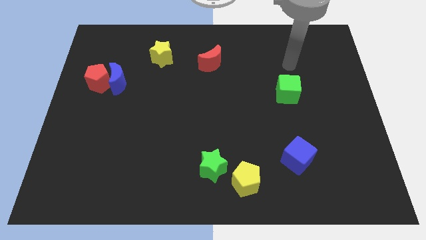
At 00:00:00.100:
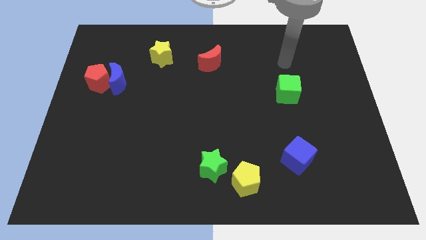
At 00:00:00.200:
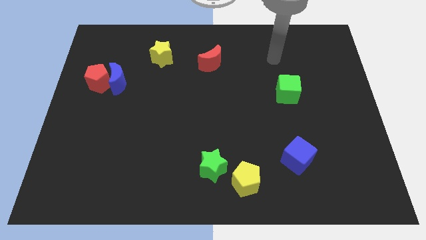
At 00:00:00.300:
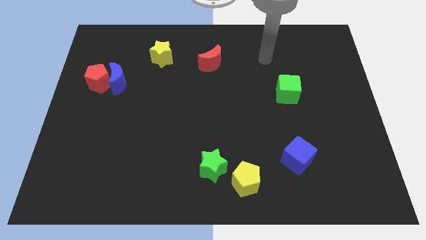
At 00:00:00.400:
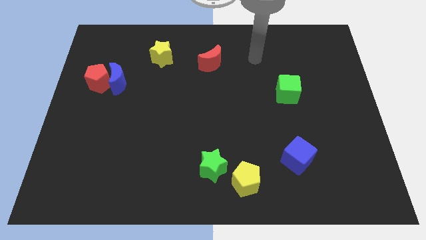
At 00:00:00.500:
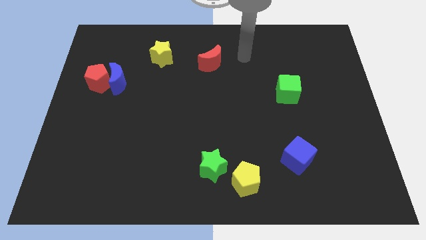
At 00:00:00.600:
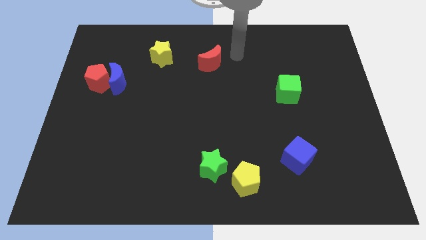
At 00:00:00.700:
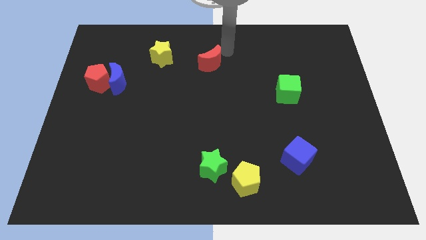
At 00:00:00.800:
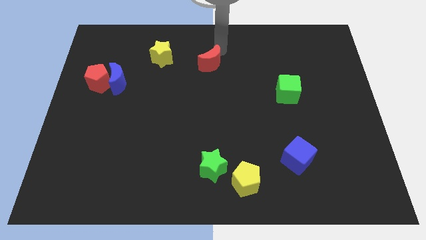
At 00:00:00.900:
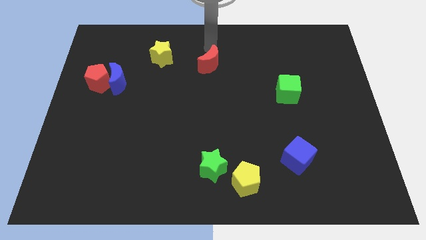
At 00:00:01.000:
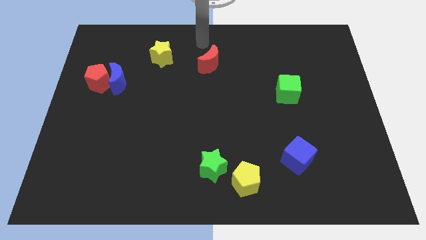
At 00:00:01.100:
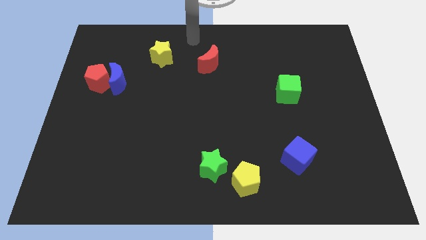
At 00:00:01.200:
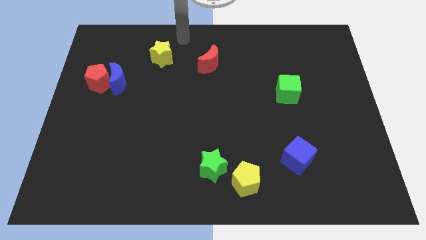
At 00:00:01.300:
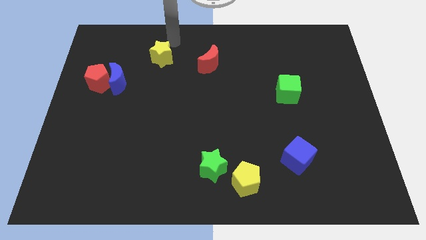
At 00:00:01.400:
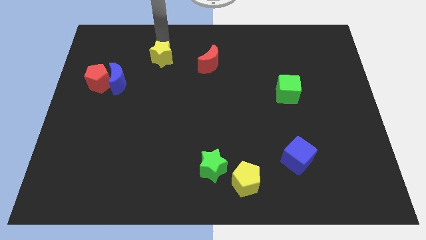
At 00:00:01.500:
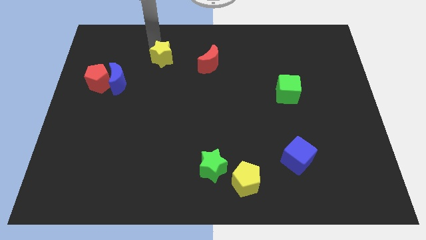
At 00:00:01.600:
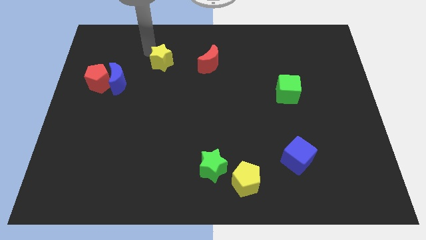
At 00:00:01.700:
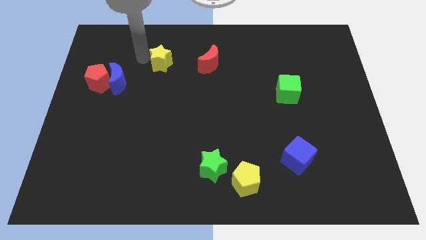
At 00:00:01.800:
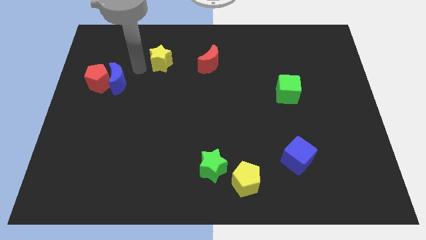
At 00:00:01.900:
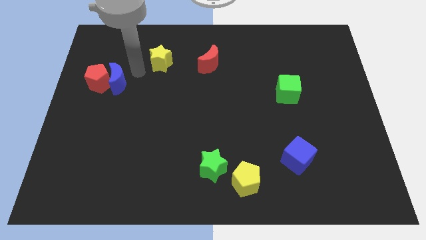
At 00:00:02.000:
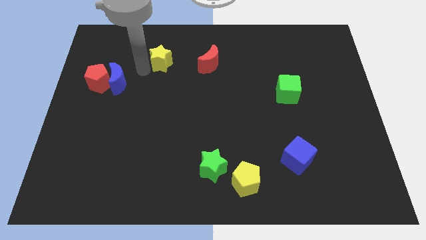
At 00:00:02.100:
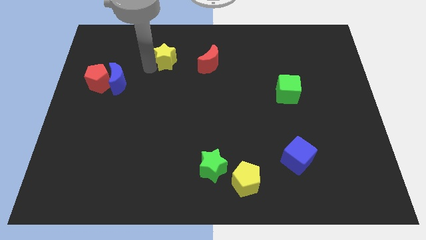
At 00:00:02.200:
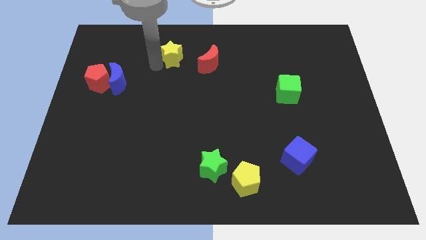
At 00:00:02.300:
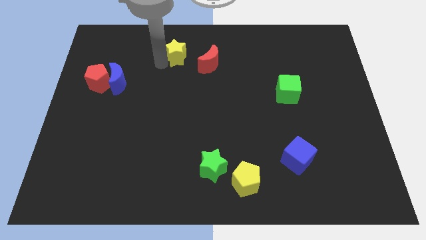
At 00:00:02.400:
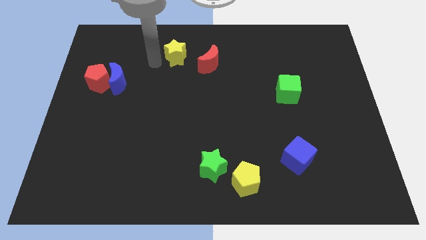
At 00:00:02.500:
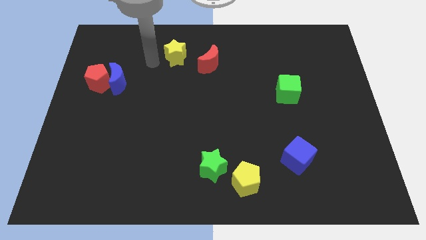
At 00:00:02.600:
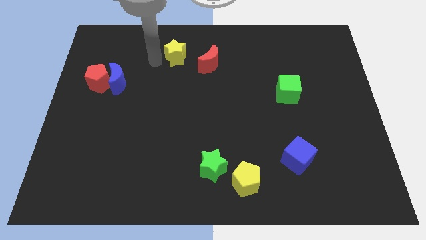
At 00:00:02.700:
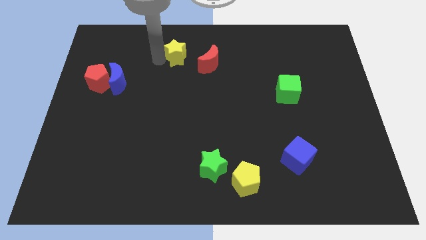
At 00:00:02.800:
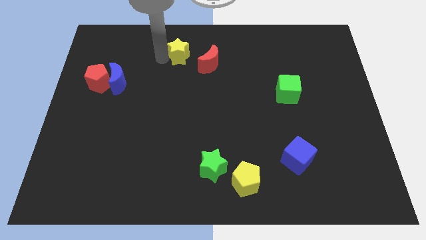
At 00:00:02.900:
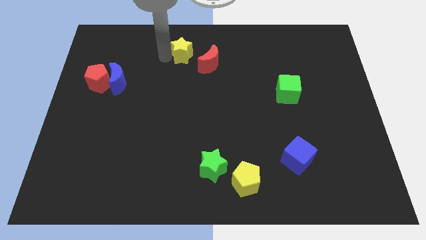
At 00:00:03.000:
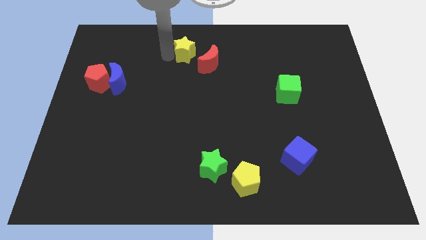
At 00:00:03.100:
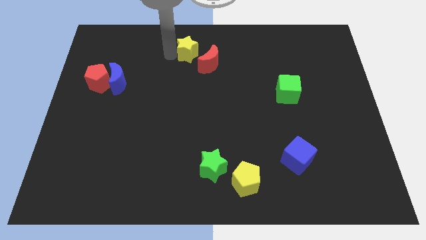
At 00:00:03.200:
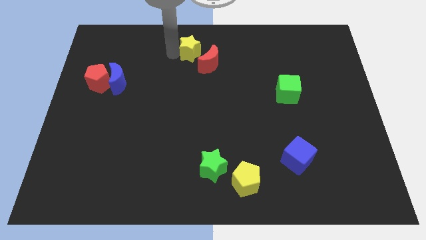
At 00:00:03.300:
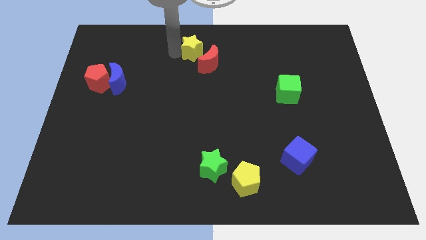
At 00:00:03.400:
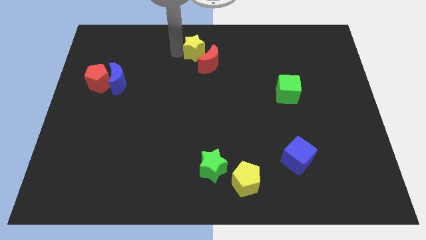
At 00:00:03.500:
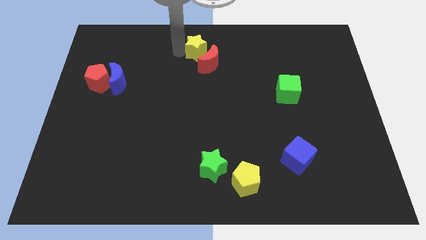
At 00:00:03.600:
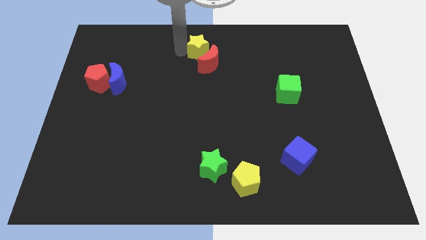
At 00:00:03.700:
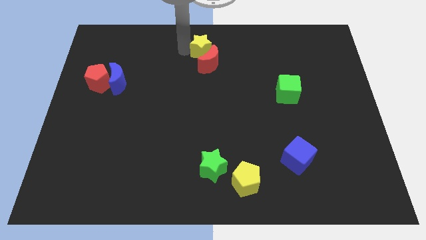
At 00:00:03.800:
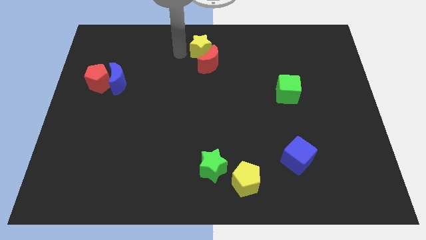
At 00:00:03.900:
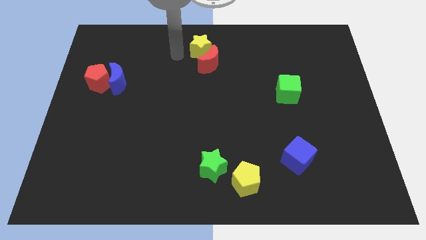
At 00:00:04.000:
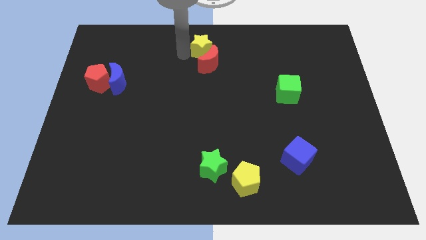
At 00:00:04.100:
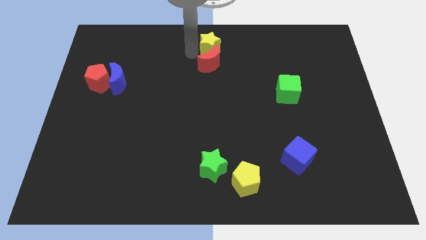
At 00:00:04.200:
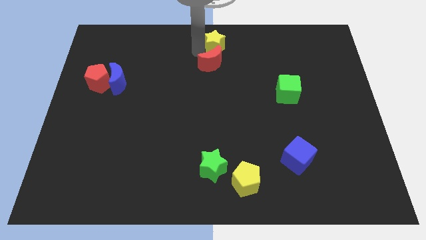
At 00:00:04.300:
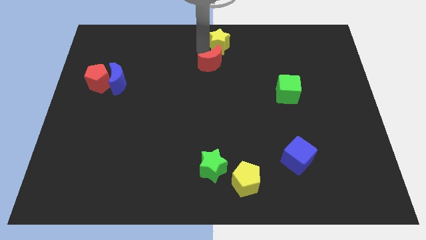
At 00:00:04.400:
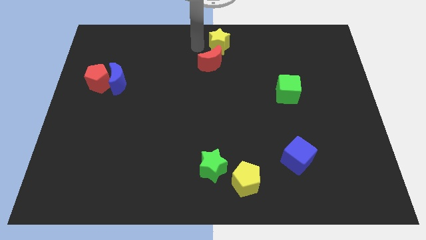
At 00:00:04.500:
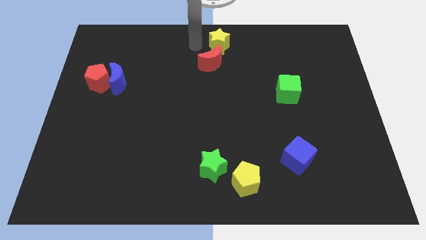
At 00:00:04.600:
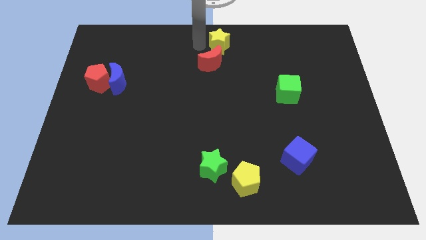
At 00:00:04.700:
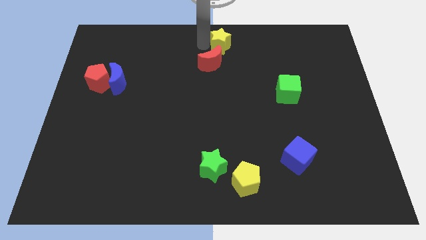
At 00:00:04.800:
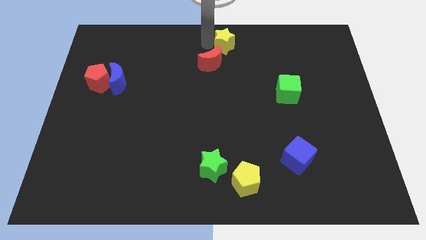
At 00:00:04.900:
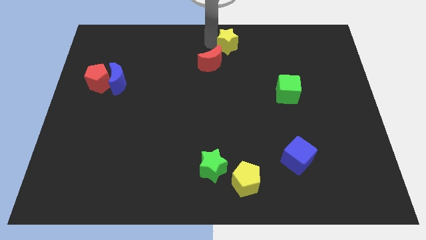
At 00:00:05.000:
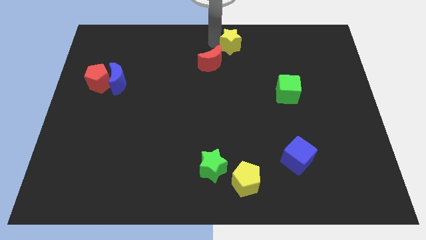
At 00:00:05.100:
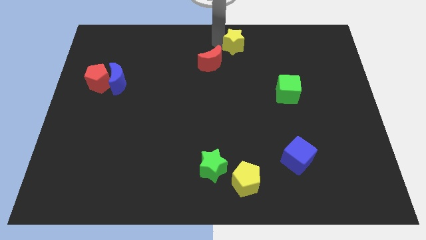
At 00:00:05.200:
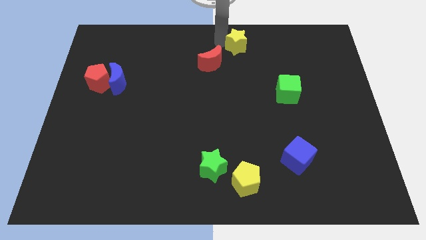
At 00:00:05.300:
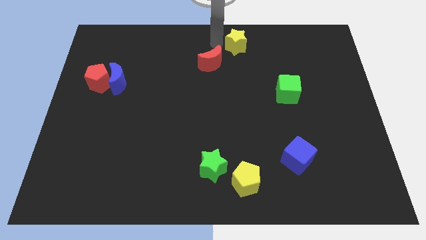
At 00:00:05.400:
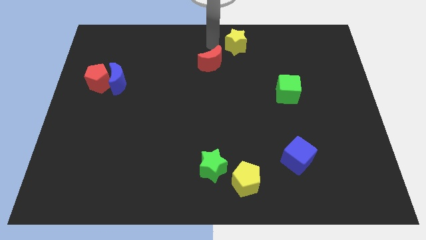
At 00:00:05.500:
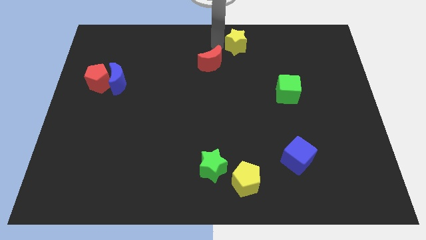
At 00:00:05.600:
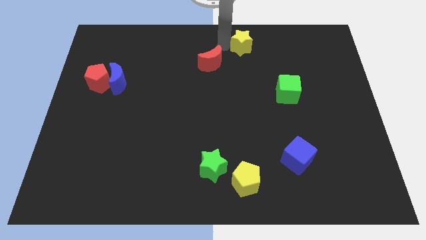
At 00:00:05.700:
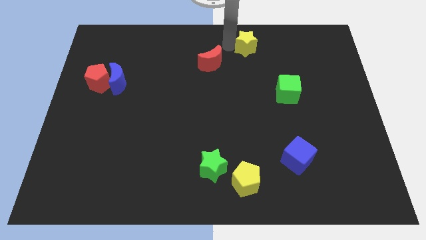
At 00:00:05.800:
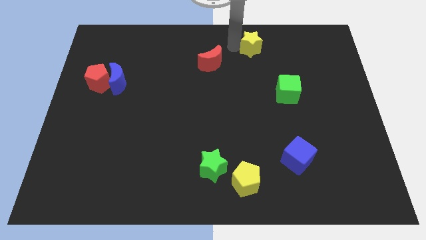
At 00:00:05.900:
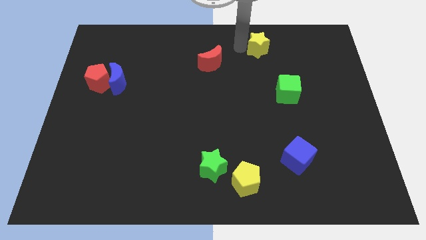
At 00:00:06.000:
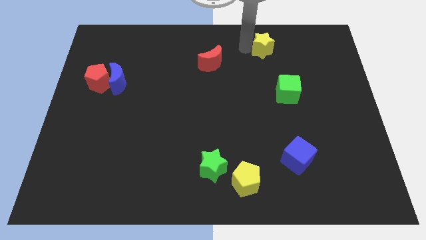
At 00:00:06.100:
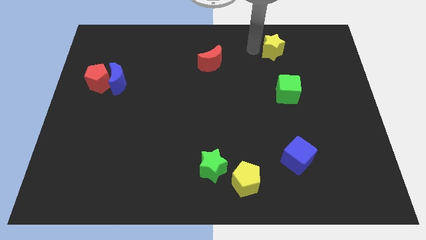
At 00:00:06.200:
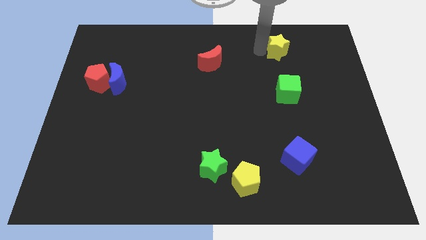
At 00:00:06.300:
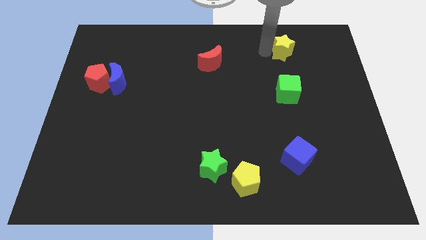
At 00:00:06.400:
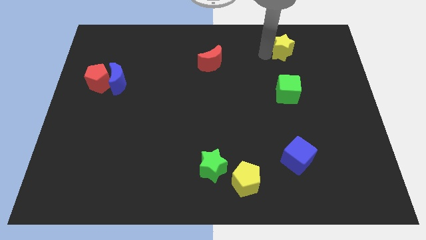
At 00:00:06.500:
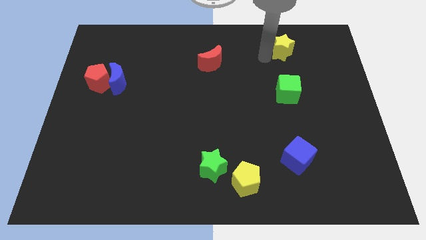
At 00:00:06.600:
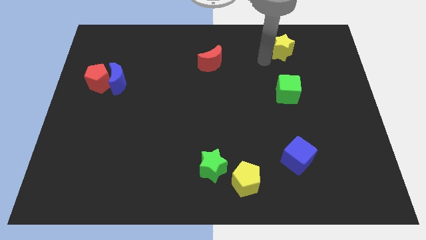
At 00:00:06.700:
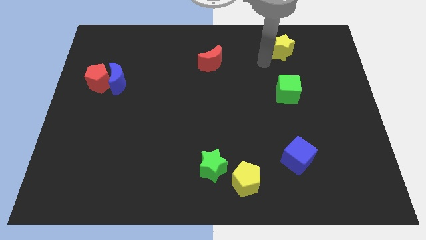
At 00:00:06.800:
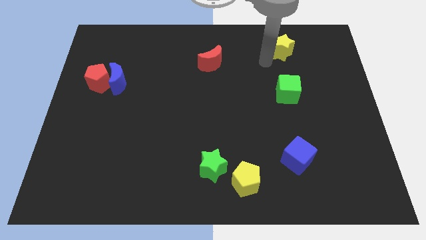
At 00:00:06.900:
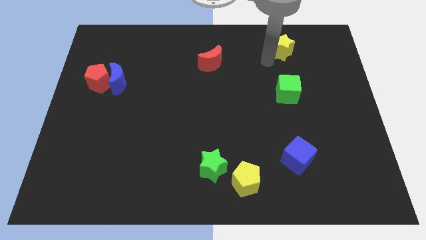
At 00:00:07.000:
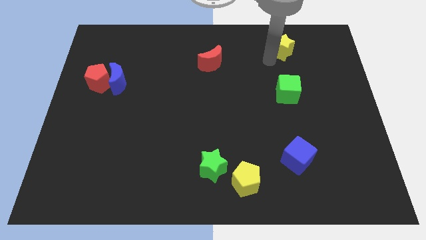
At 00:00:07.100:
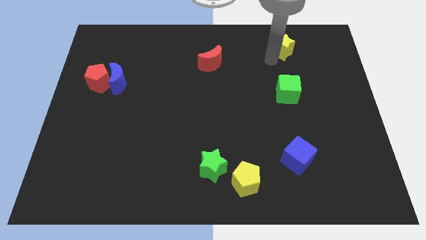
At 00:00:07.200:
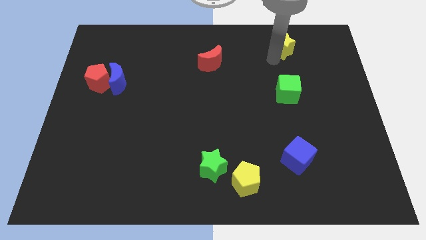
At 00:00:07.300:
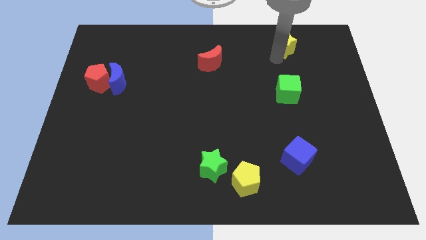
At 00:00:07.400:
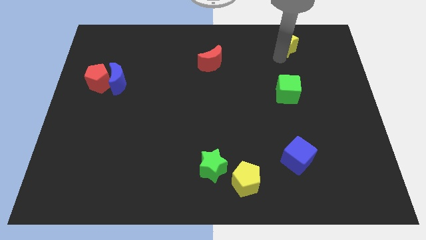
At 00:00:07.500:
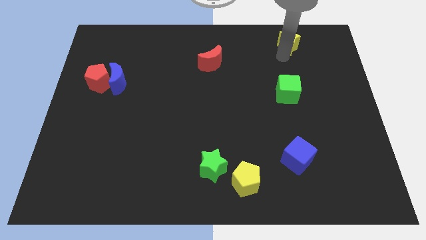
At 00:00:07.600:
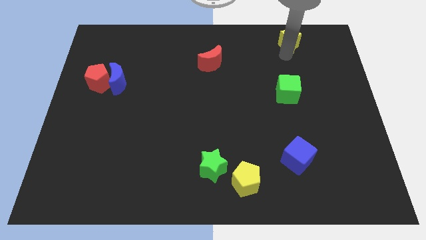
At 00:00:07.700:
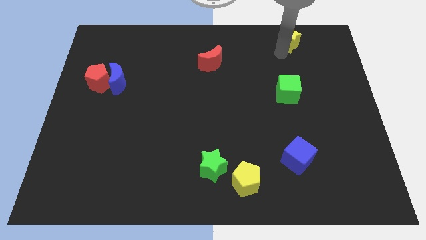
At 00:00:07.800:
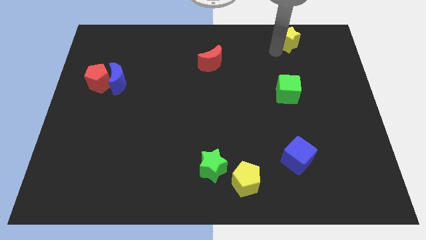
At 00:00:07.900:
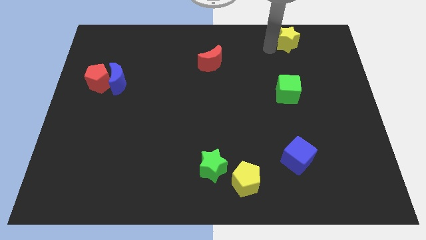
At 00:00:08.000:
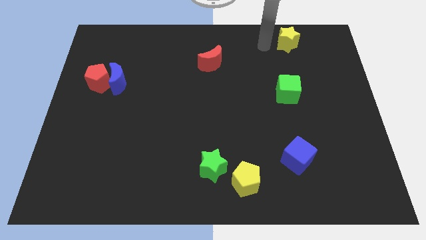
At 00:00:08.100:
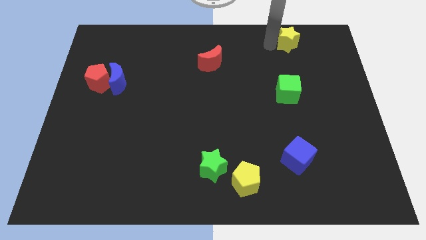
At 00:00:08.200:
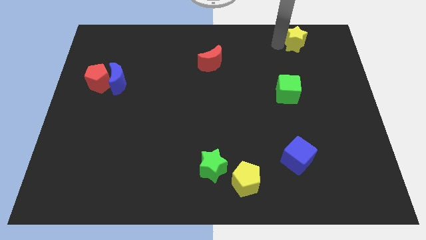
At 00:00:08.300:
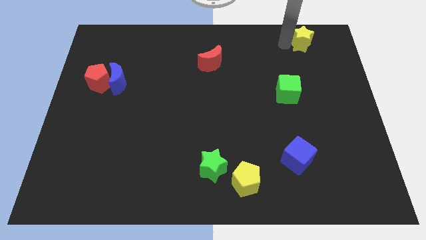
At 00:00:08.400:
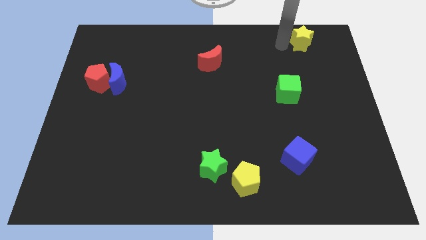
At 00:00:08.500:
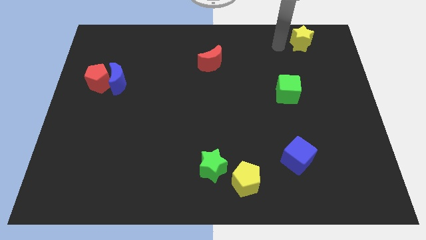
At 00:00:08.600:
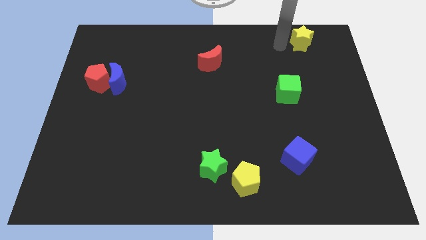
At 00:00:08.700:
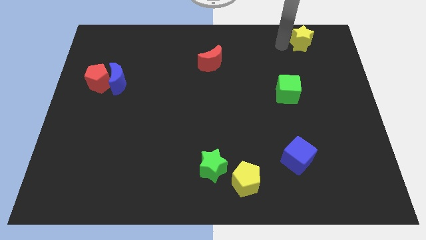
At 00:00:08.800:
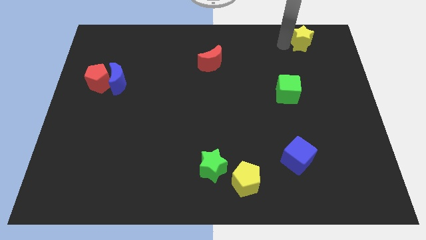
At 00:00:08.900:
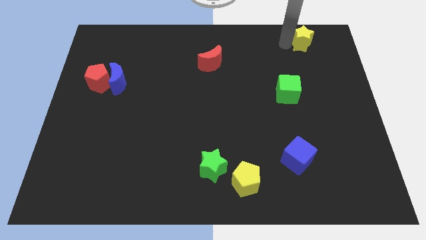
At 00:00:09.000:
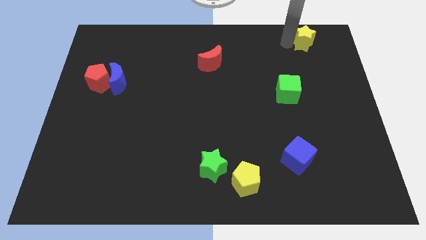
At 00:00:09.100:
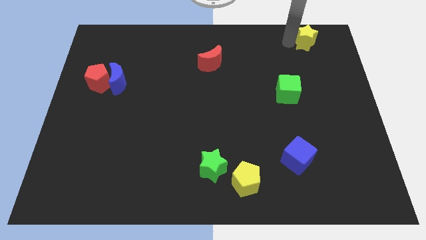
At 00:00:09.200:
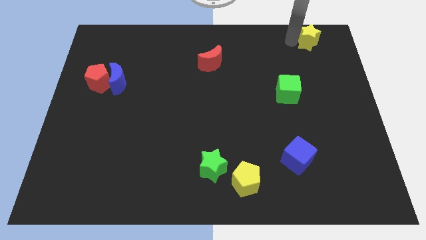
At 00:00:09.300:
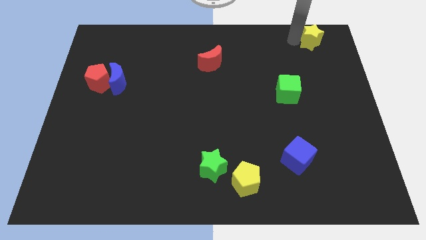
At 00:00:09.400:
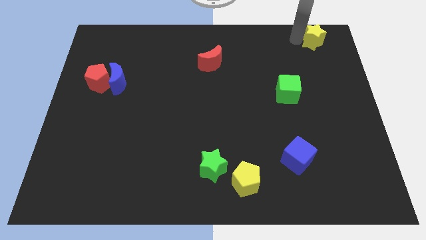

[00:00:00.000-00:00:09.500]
slide the yellow star to the top right
